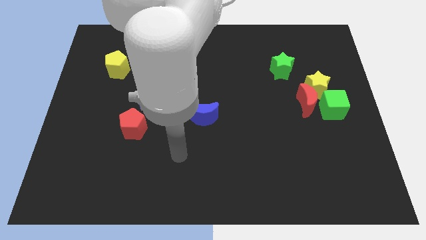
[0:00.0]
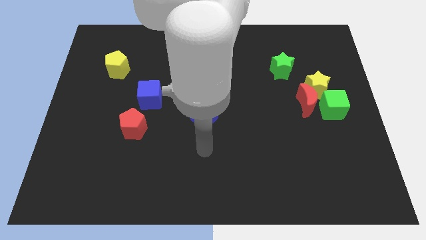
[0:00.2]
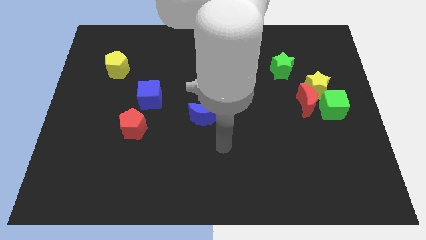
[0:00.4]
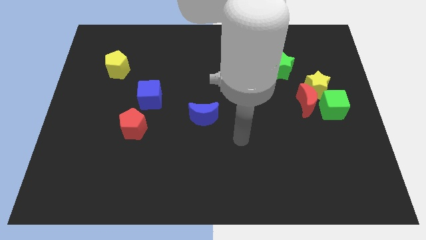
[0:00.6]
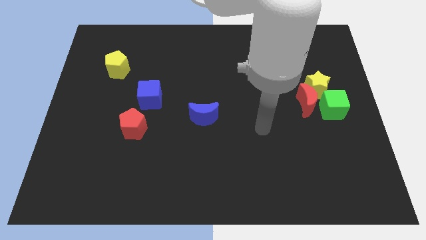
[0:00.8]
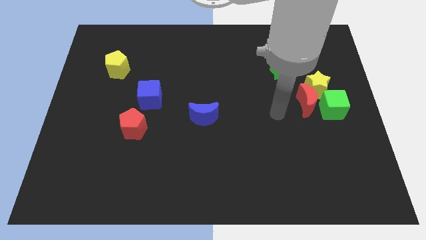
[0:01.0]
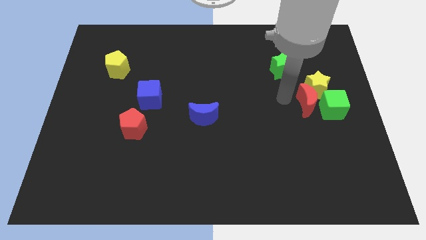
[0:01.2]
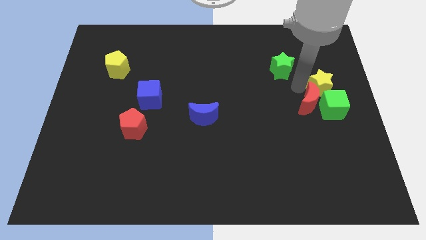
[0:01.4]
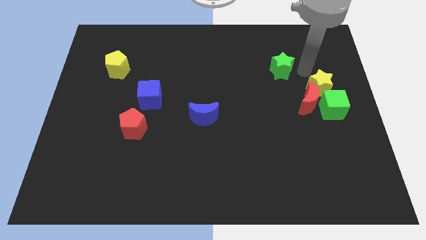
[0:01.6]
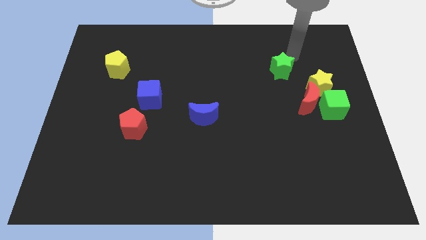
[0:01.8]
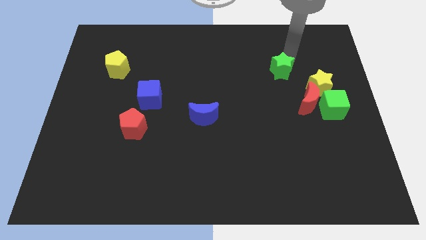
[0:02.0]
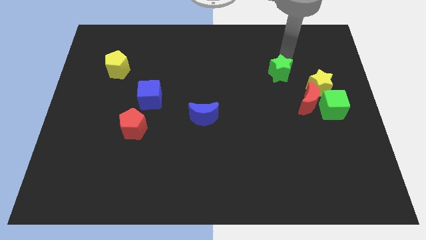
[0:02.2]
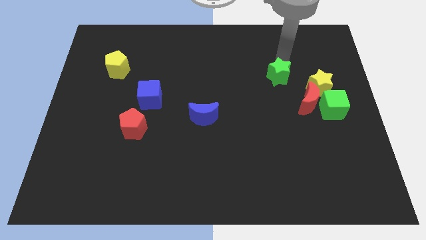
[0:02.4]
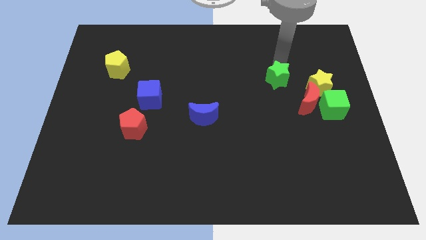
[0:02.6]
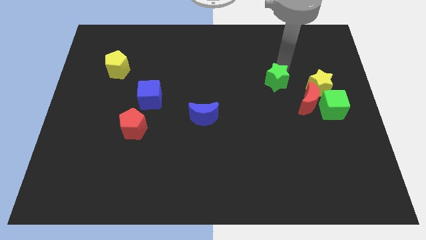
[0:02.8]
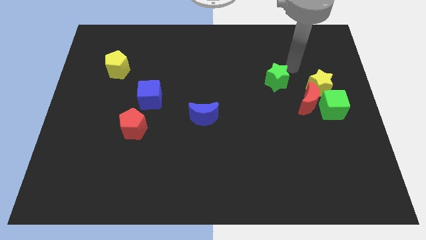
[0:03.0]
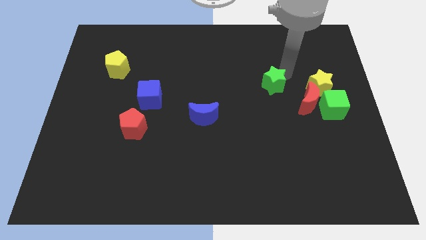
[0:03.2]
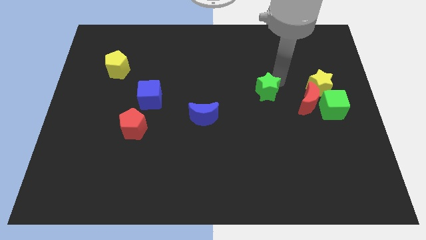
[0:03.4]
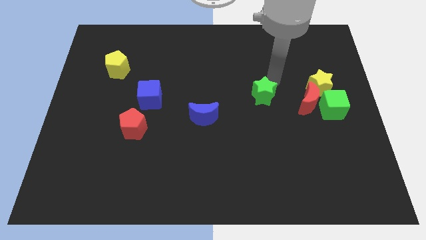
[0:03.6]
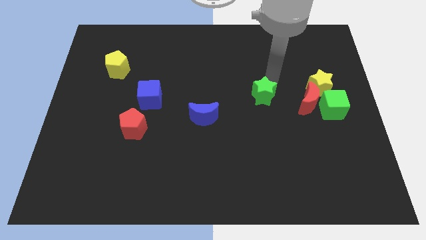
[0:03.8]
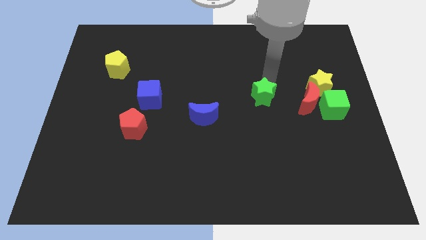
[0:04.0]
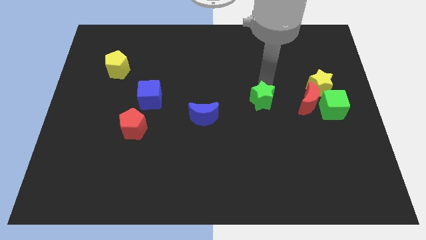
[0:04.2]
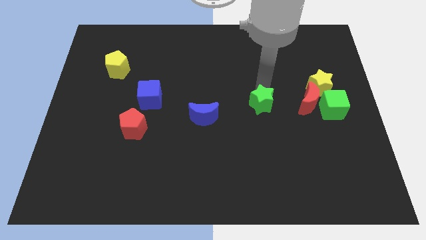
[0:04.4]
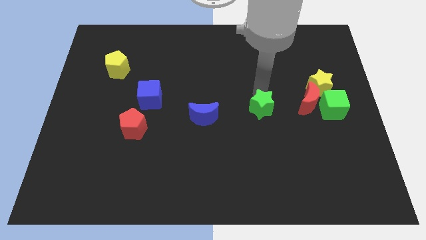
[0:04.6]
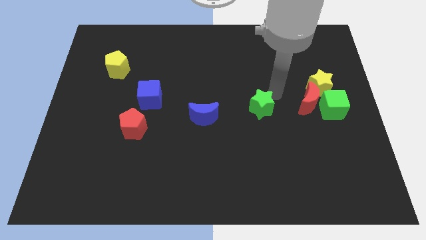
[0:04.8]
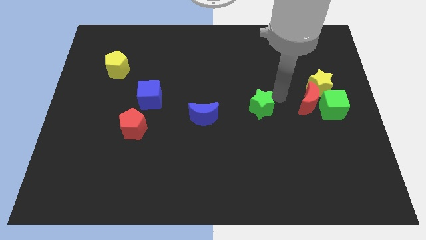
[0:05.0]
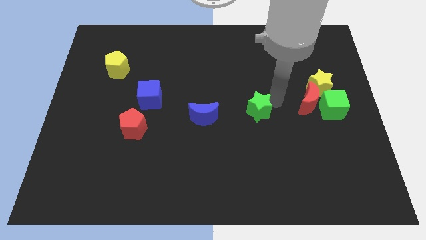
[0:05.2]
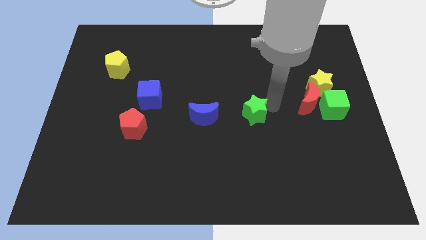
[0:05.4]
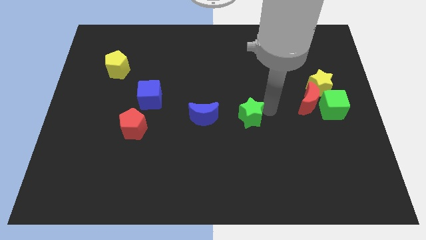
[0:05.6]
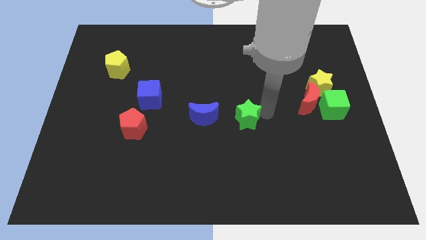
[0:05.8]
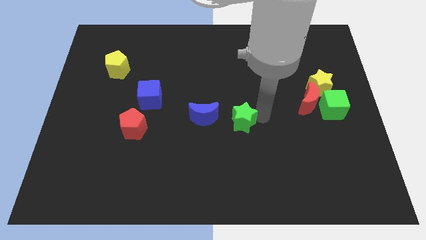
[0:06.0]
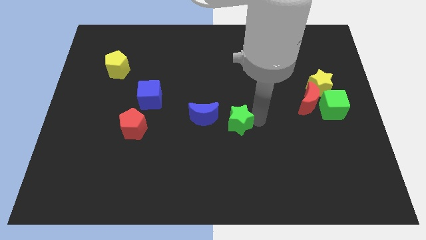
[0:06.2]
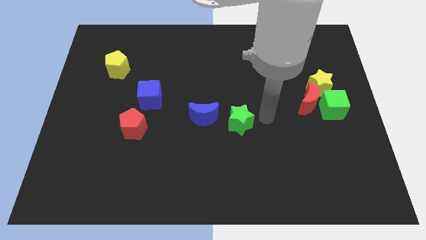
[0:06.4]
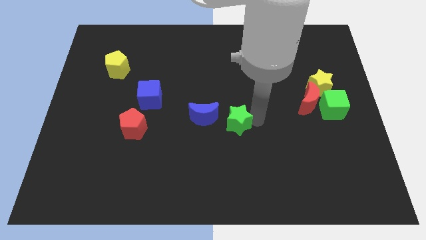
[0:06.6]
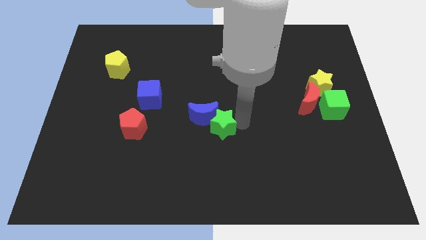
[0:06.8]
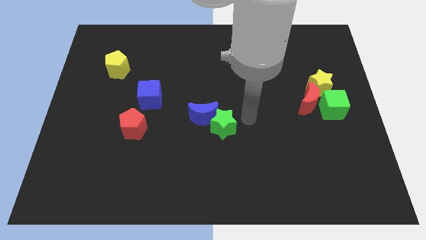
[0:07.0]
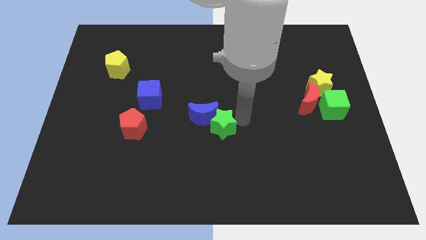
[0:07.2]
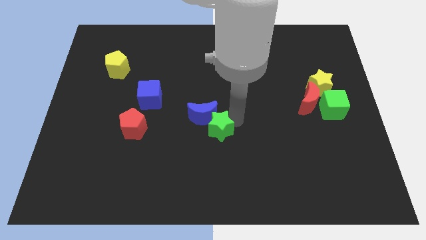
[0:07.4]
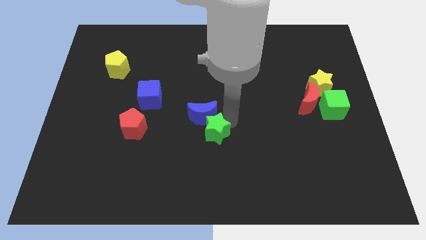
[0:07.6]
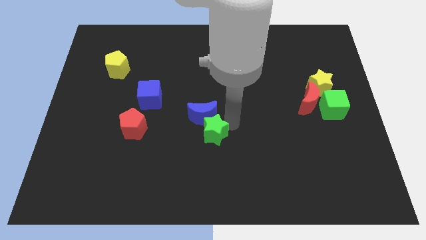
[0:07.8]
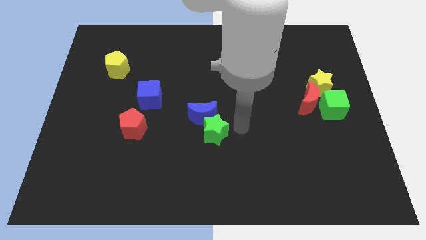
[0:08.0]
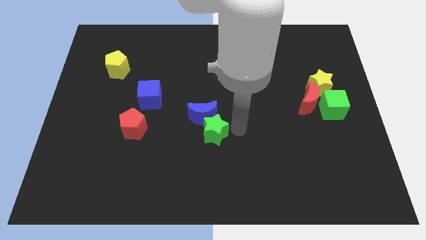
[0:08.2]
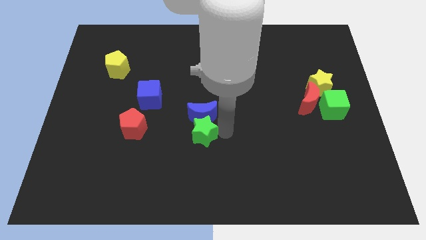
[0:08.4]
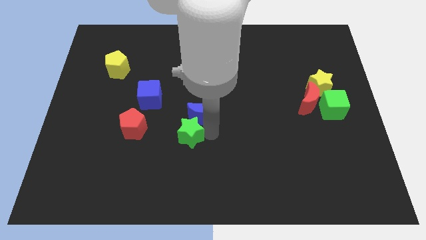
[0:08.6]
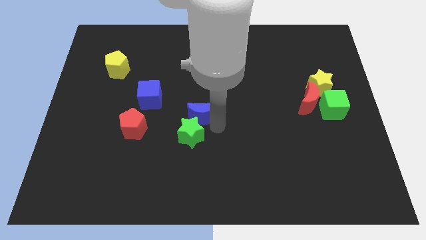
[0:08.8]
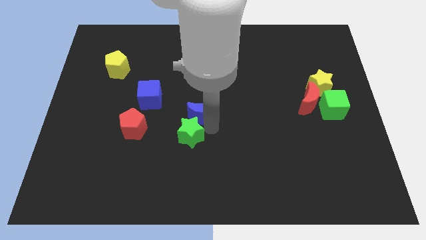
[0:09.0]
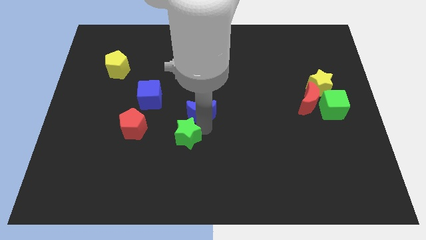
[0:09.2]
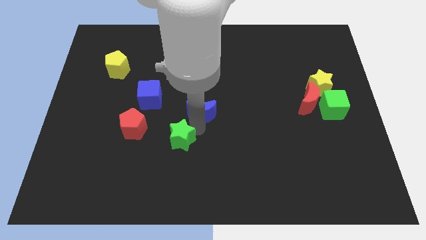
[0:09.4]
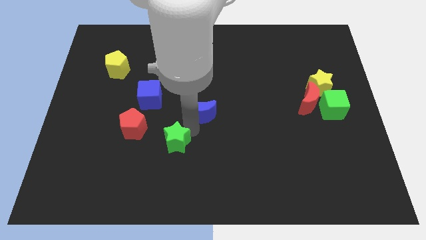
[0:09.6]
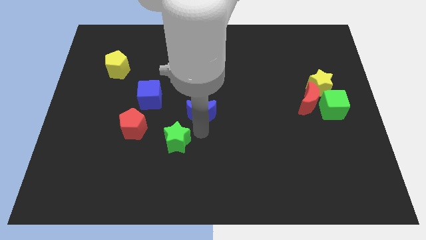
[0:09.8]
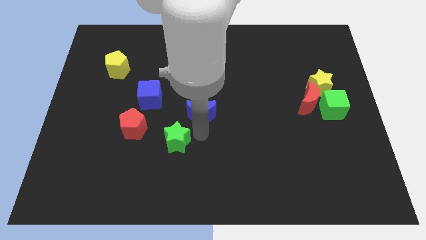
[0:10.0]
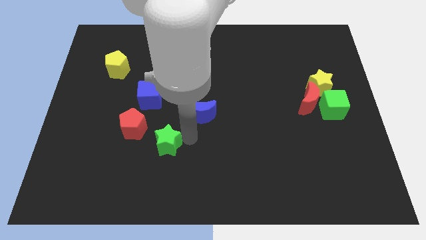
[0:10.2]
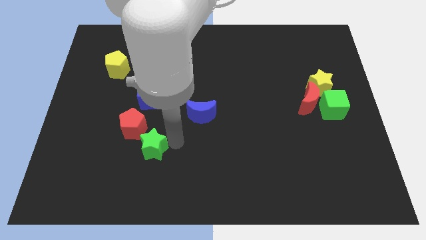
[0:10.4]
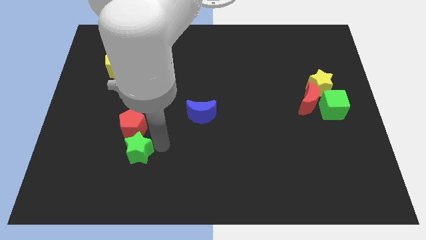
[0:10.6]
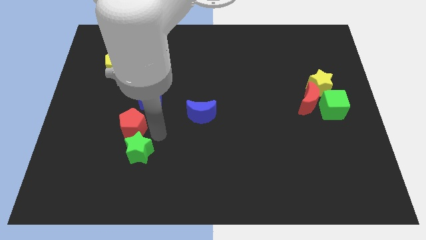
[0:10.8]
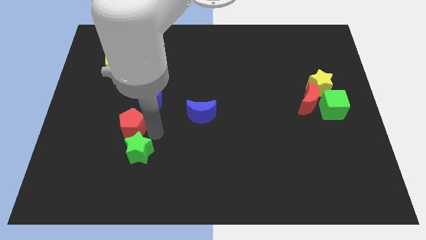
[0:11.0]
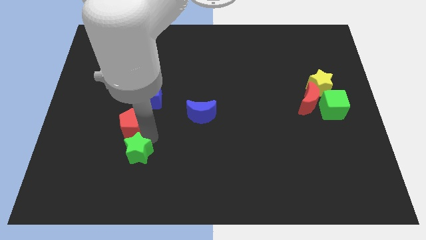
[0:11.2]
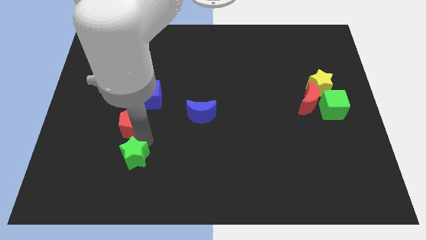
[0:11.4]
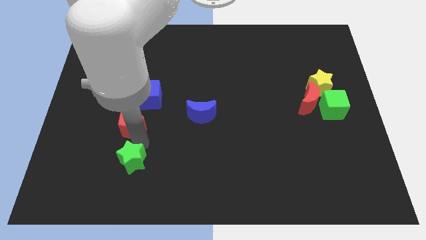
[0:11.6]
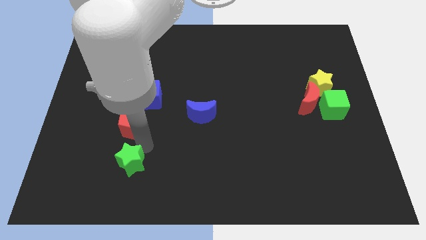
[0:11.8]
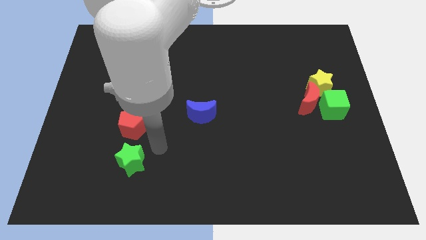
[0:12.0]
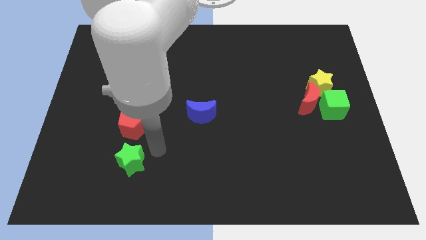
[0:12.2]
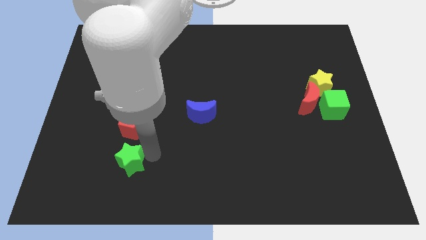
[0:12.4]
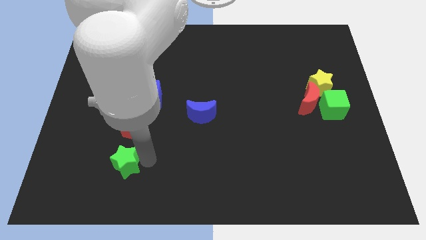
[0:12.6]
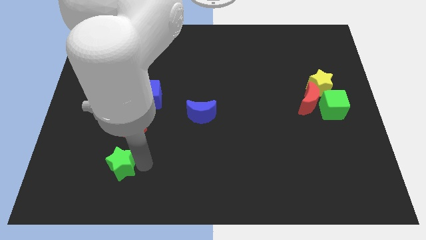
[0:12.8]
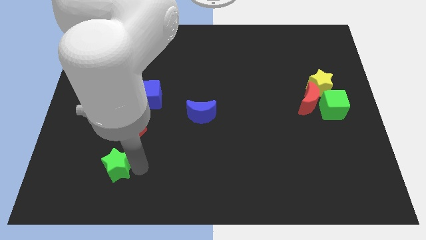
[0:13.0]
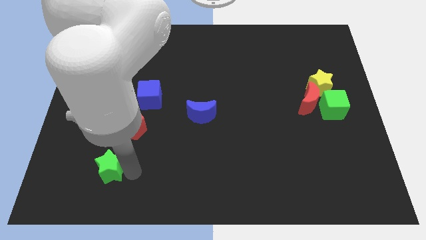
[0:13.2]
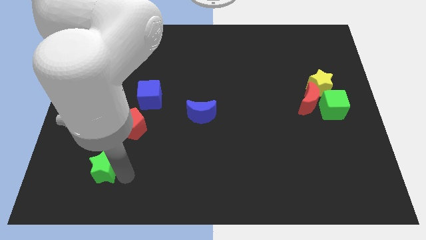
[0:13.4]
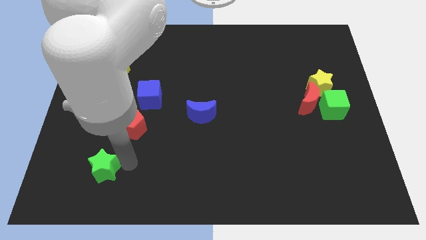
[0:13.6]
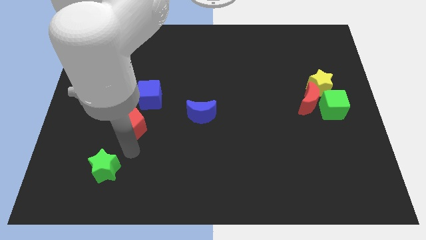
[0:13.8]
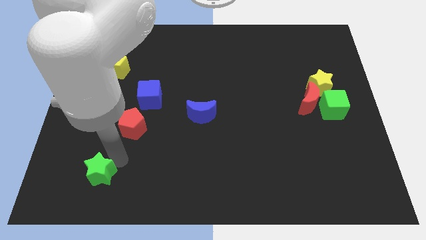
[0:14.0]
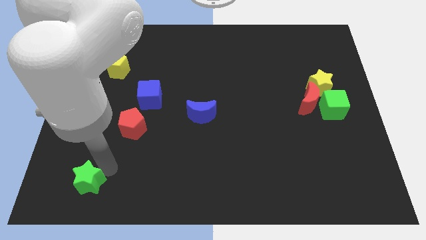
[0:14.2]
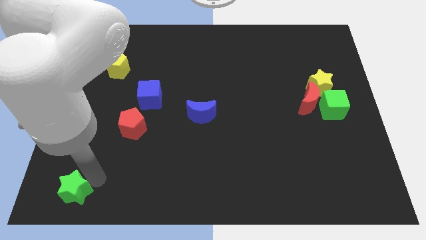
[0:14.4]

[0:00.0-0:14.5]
put the green star to the lower left corner
